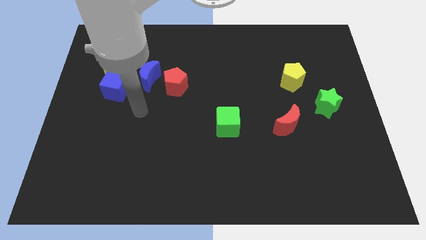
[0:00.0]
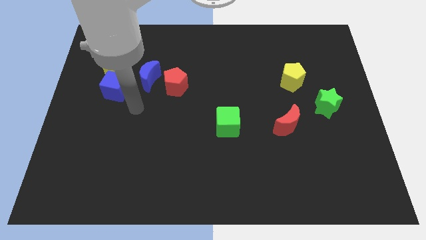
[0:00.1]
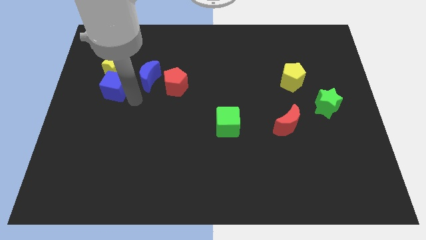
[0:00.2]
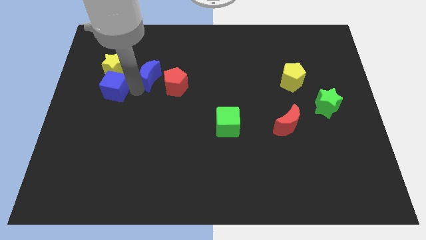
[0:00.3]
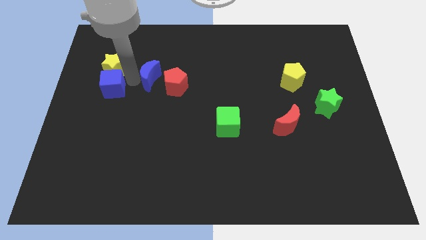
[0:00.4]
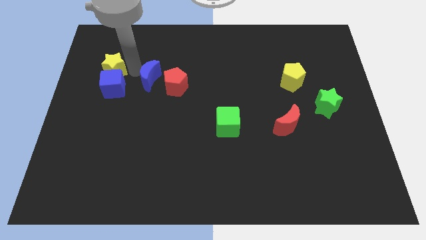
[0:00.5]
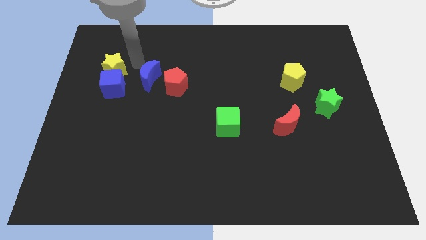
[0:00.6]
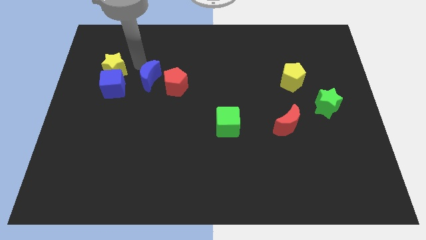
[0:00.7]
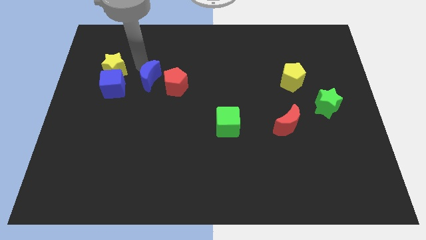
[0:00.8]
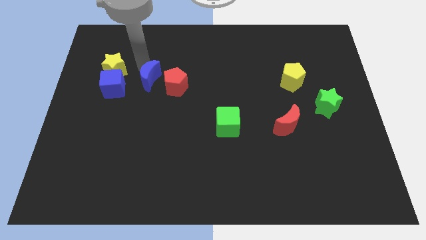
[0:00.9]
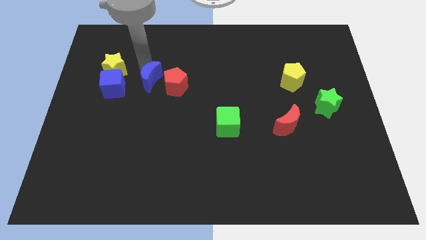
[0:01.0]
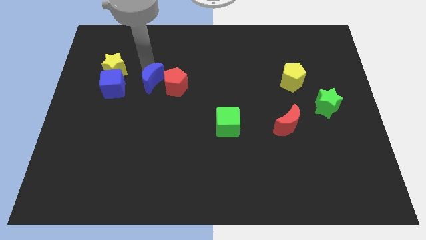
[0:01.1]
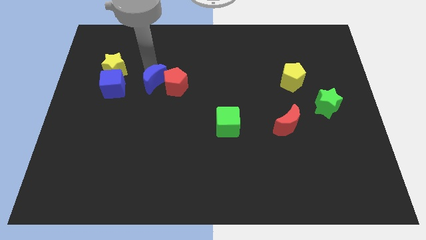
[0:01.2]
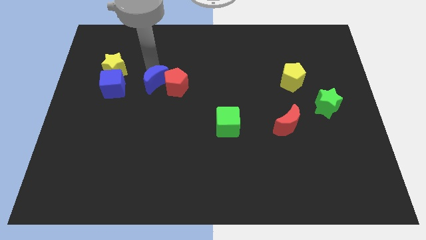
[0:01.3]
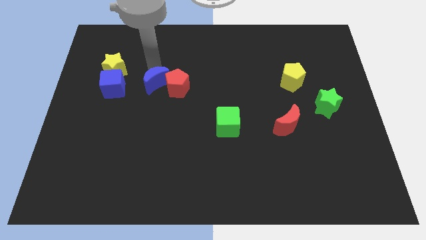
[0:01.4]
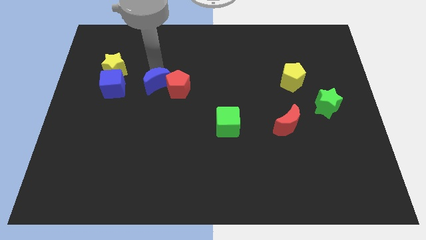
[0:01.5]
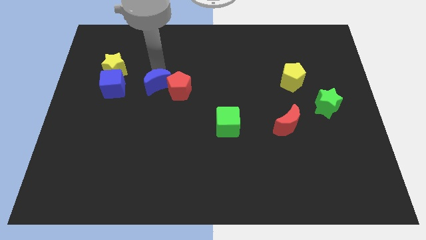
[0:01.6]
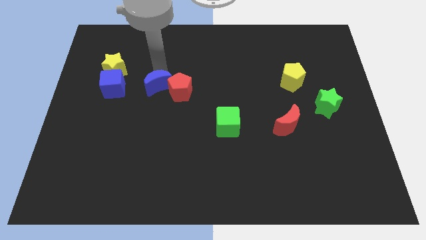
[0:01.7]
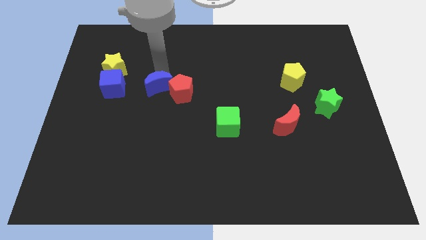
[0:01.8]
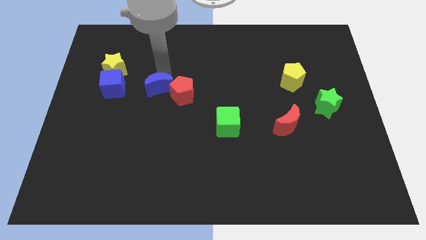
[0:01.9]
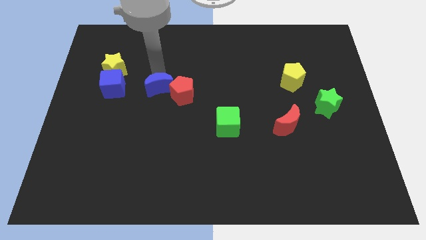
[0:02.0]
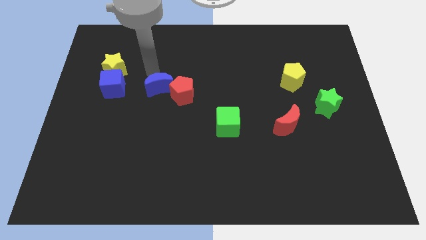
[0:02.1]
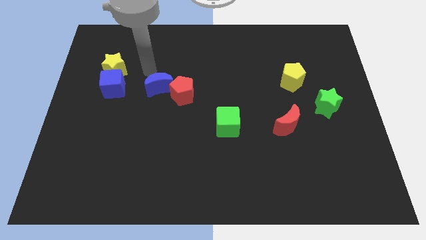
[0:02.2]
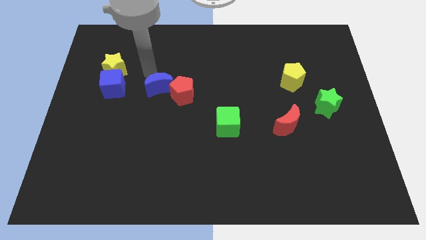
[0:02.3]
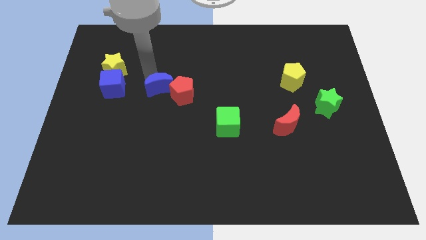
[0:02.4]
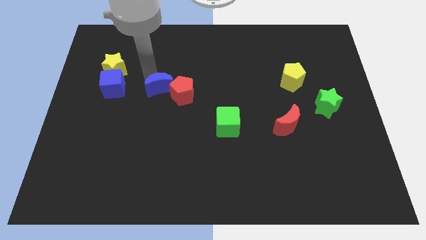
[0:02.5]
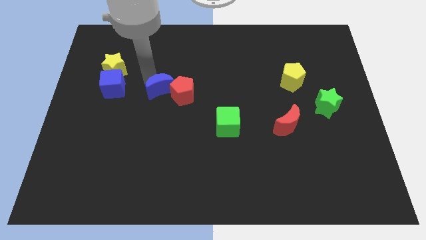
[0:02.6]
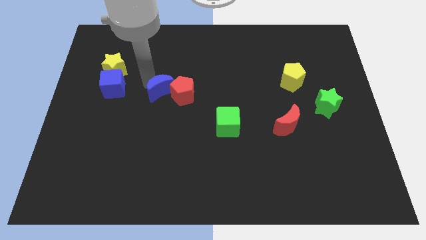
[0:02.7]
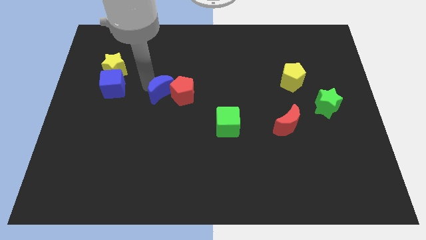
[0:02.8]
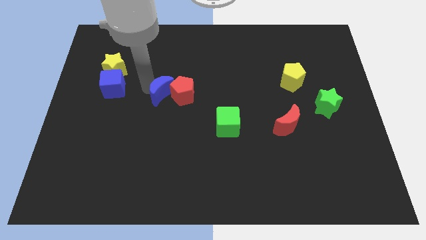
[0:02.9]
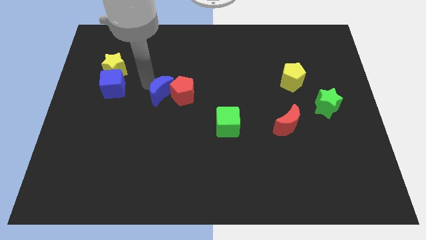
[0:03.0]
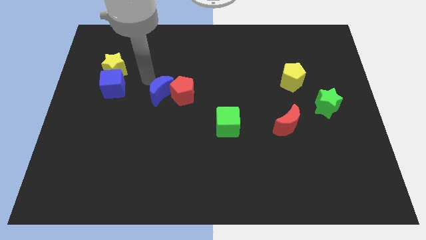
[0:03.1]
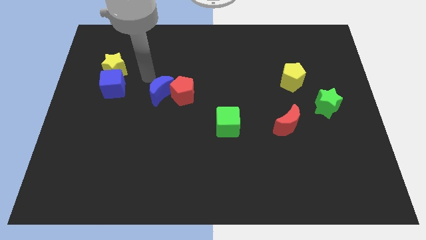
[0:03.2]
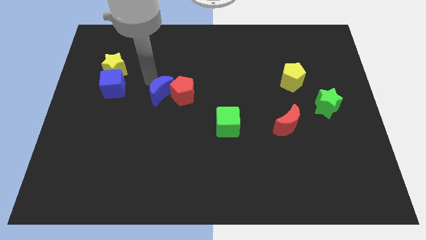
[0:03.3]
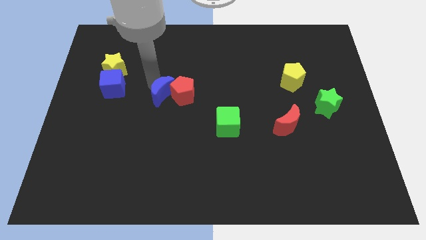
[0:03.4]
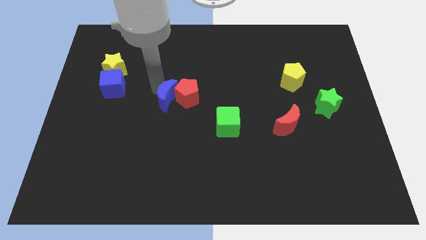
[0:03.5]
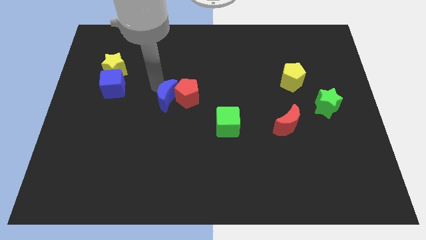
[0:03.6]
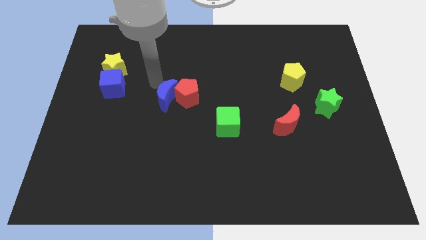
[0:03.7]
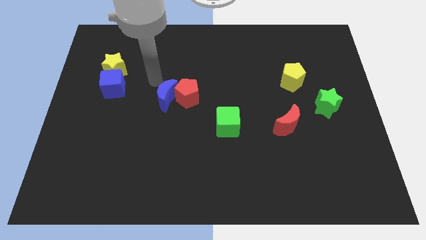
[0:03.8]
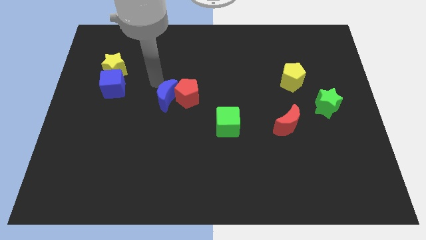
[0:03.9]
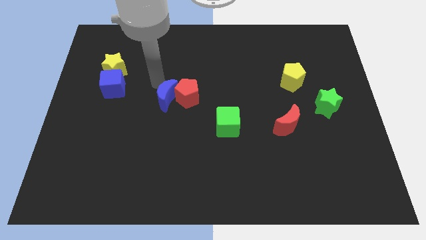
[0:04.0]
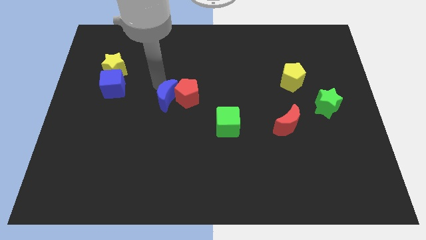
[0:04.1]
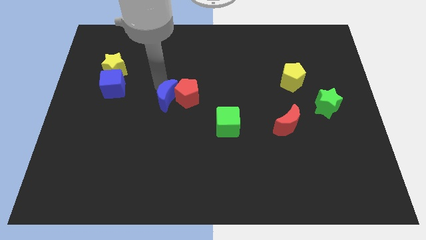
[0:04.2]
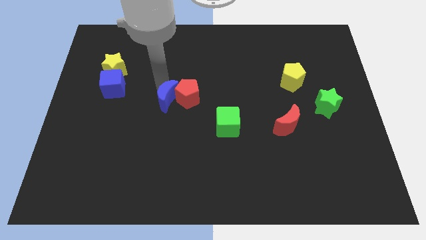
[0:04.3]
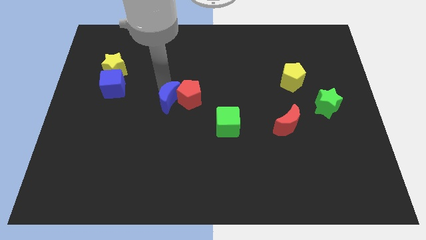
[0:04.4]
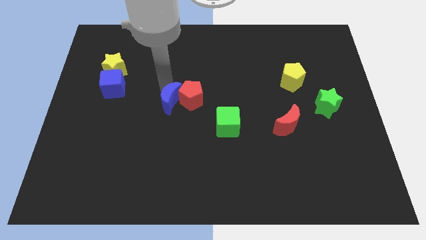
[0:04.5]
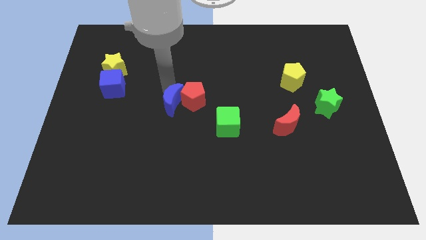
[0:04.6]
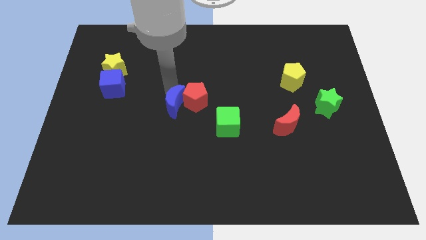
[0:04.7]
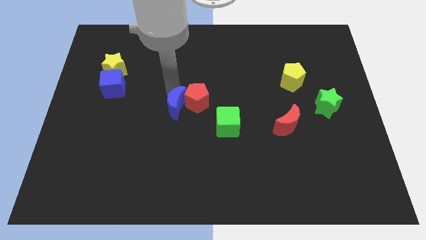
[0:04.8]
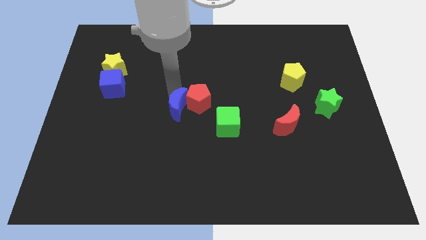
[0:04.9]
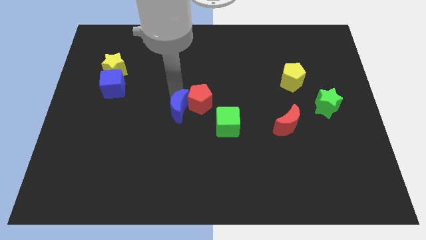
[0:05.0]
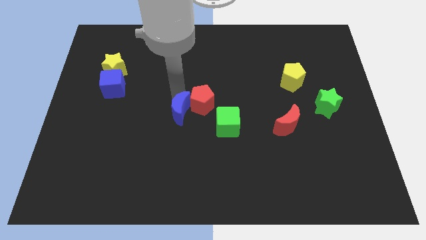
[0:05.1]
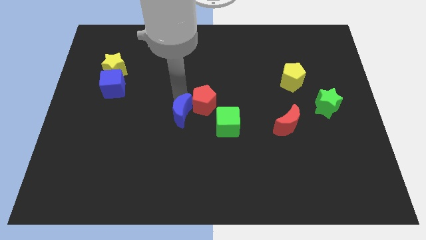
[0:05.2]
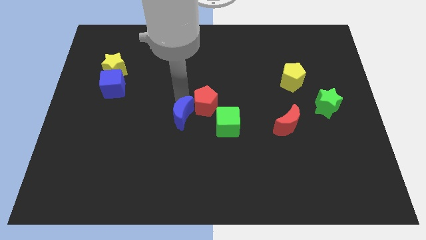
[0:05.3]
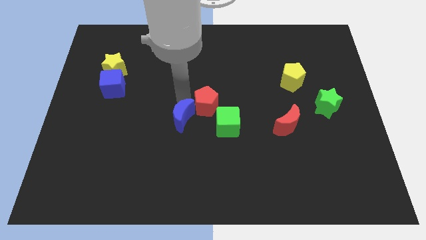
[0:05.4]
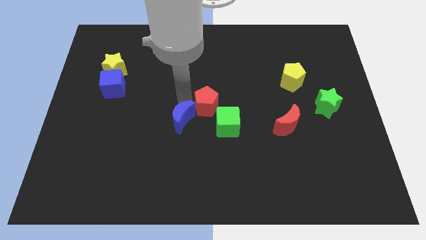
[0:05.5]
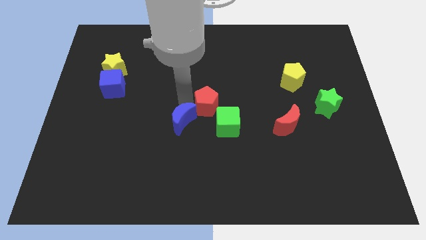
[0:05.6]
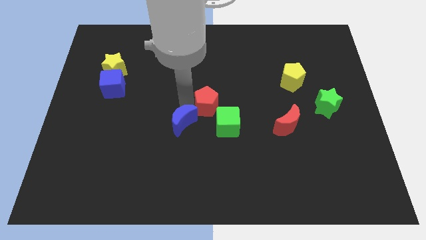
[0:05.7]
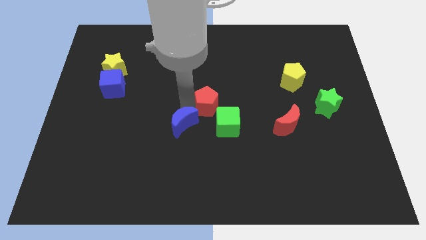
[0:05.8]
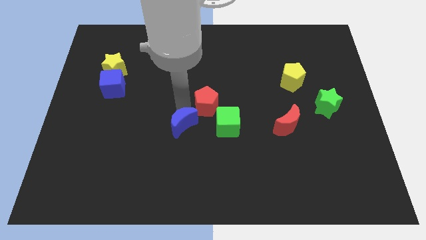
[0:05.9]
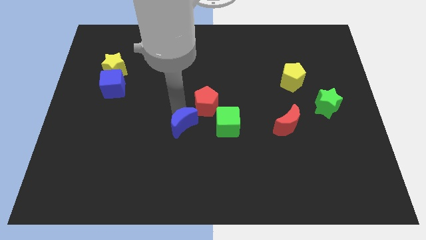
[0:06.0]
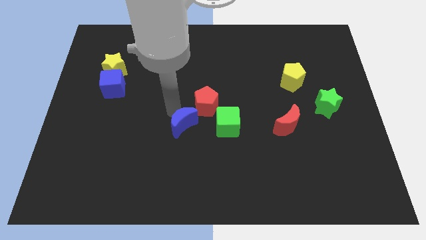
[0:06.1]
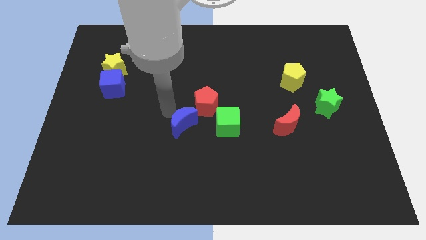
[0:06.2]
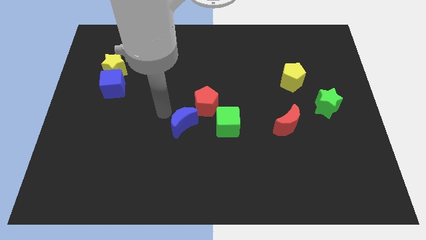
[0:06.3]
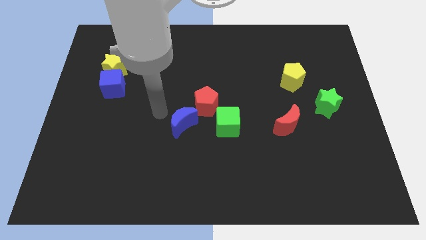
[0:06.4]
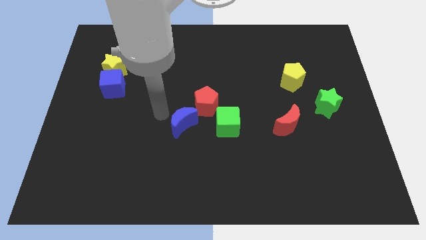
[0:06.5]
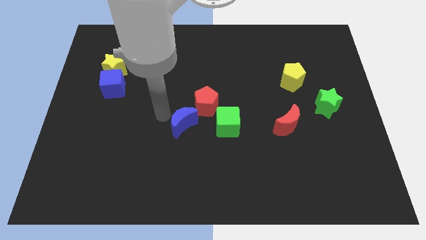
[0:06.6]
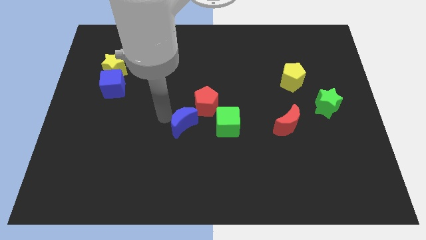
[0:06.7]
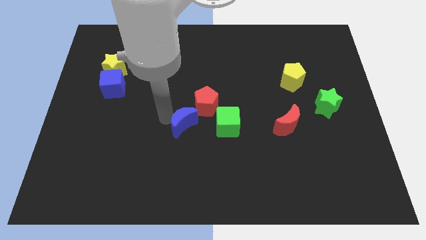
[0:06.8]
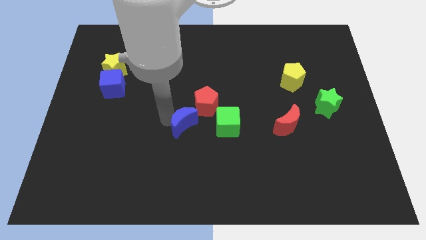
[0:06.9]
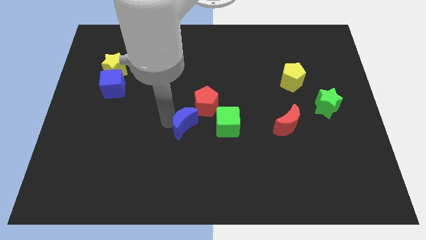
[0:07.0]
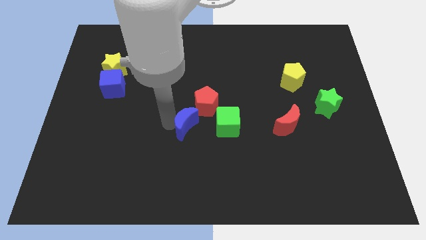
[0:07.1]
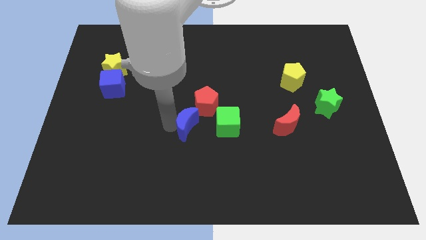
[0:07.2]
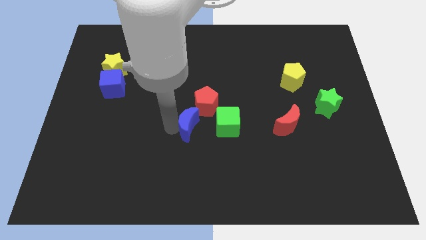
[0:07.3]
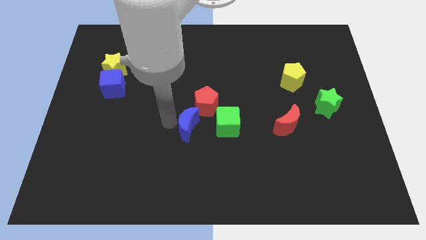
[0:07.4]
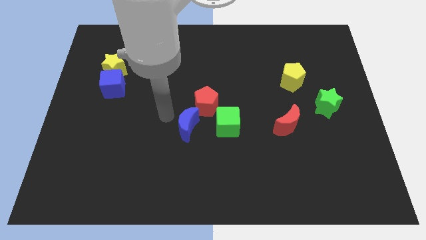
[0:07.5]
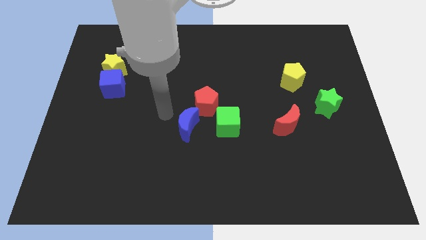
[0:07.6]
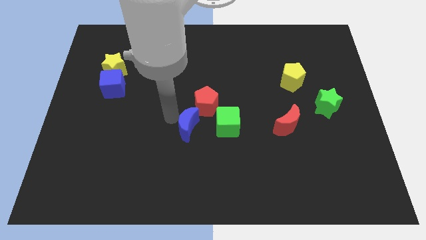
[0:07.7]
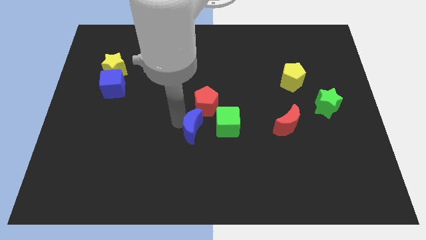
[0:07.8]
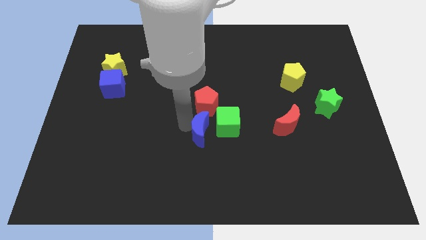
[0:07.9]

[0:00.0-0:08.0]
push the blue moon downwards and right

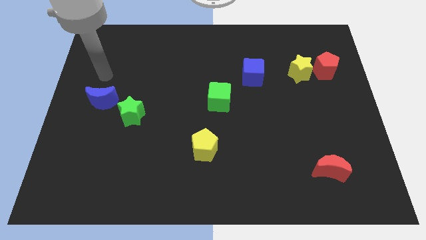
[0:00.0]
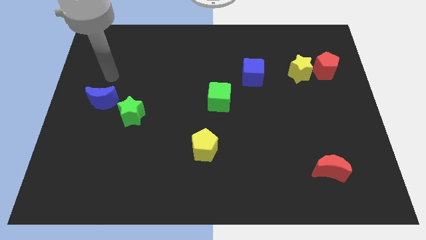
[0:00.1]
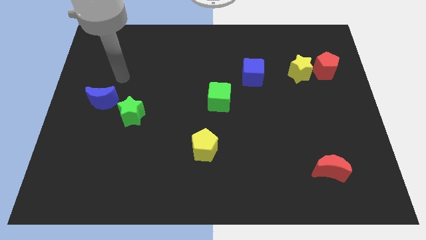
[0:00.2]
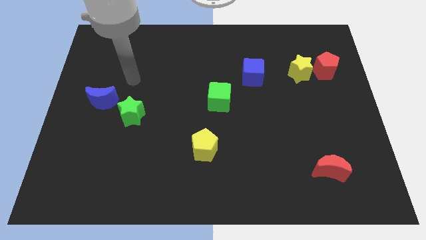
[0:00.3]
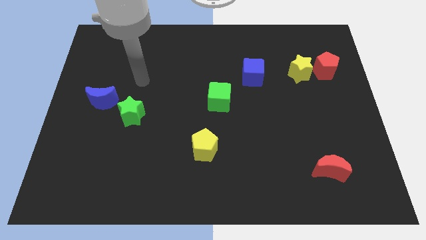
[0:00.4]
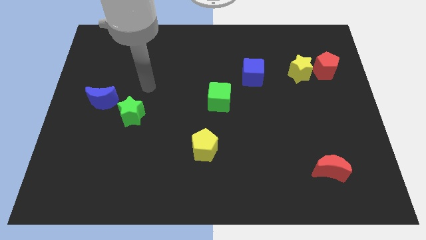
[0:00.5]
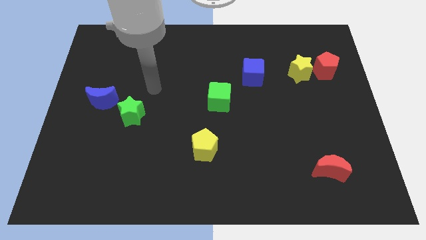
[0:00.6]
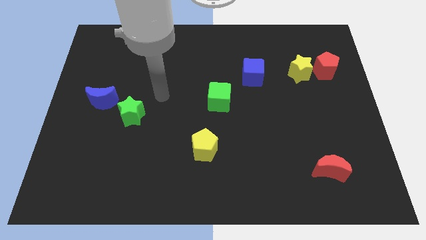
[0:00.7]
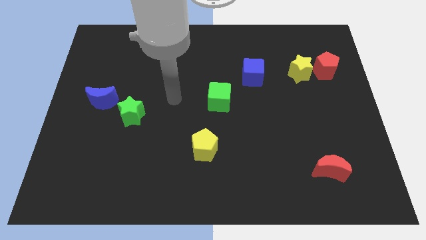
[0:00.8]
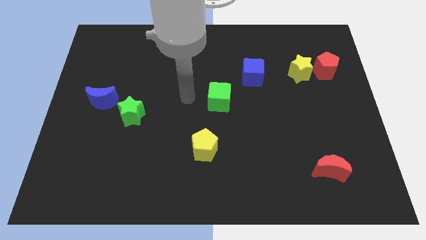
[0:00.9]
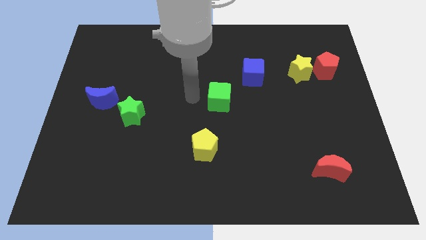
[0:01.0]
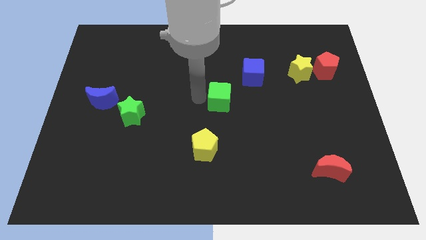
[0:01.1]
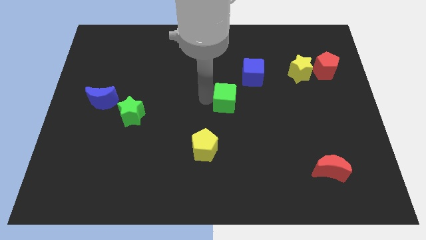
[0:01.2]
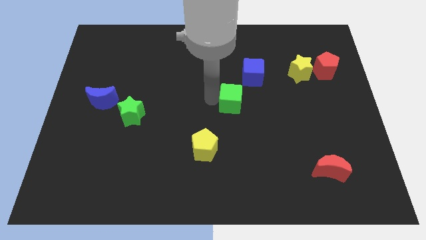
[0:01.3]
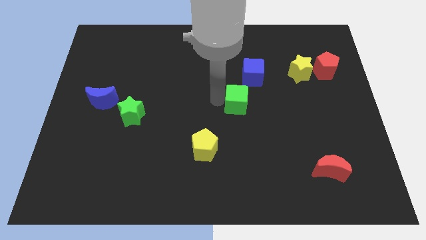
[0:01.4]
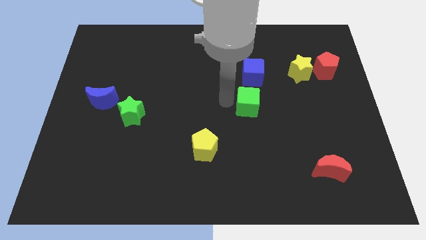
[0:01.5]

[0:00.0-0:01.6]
slide the green cube slightly to the right
